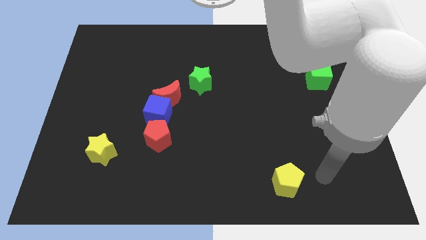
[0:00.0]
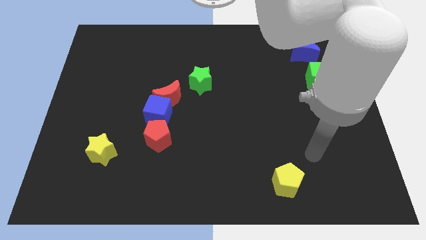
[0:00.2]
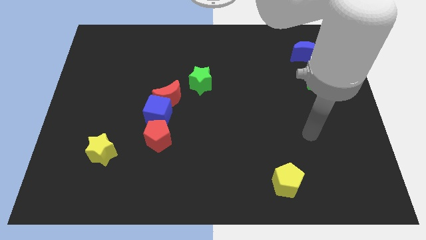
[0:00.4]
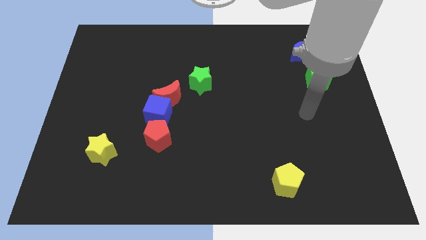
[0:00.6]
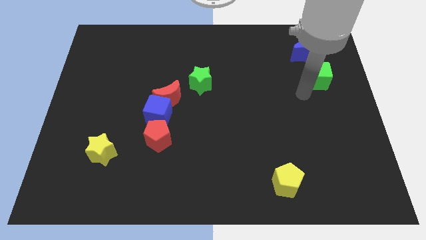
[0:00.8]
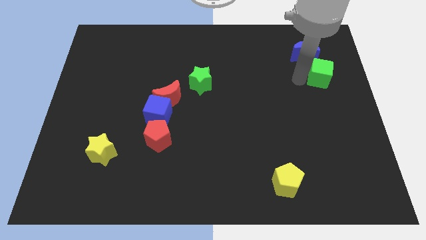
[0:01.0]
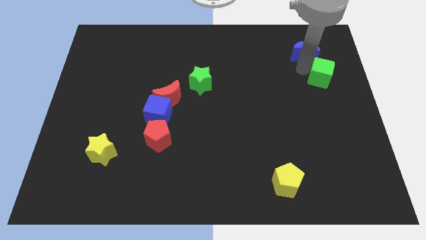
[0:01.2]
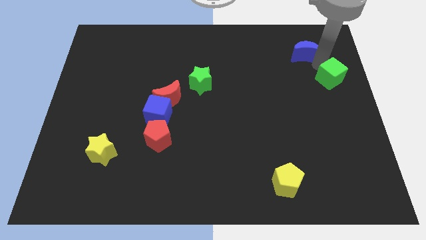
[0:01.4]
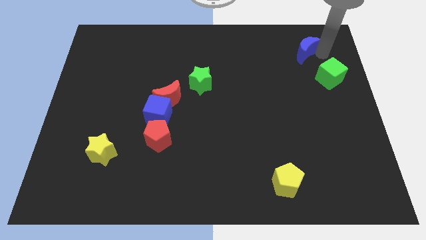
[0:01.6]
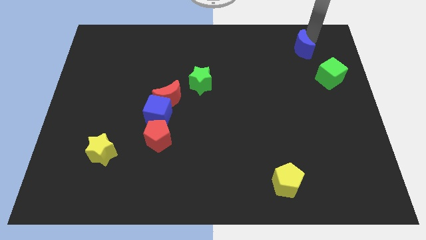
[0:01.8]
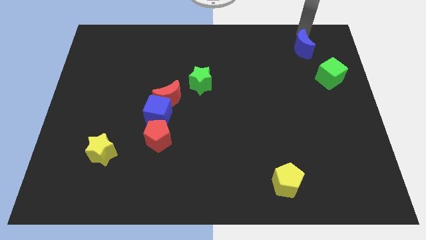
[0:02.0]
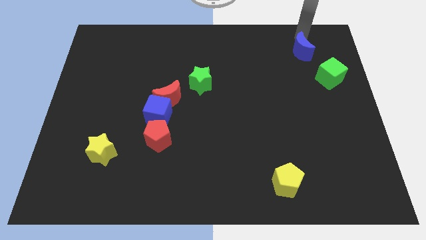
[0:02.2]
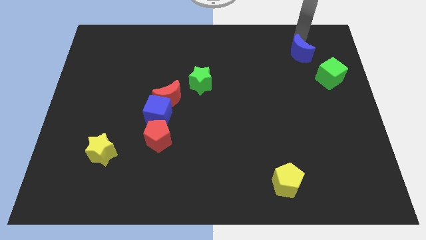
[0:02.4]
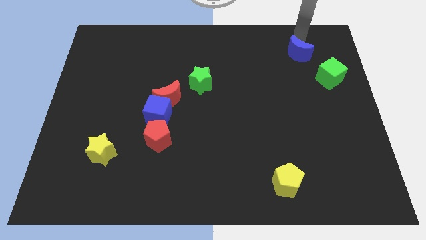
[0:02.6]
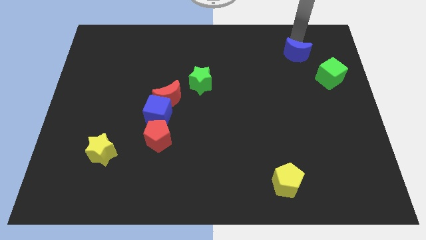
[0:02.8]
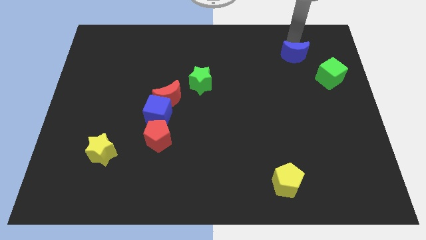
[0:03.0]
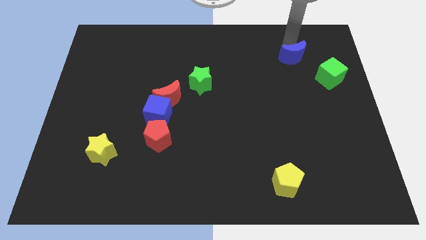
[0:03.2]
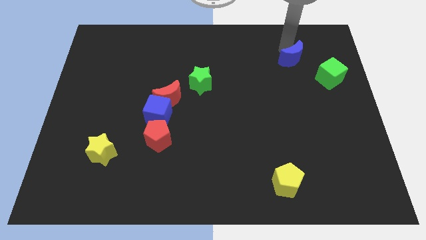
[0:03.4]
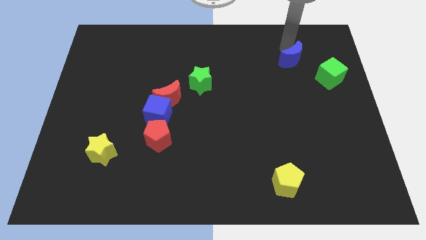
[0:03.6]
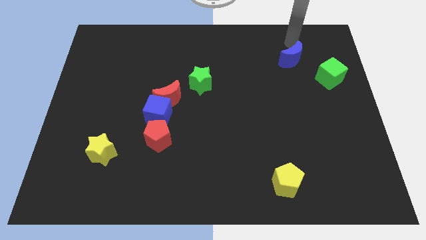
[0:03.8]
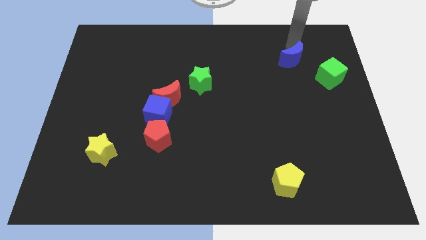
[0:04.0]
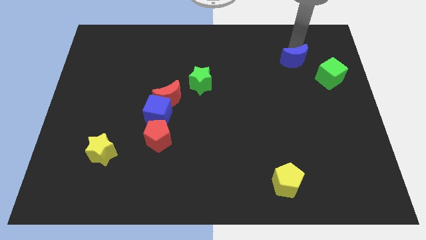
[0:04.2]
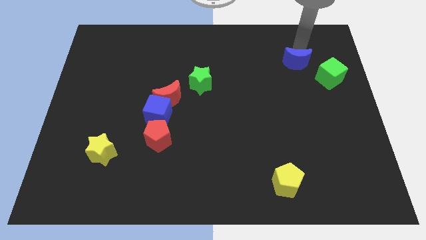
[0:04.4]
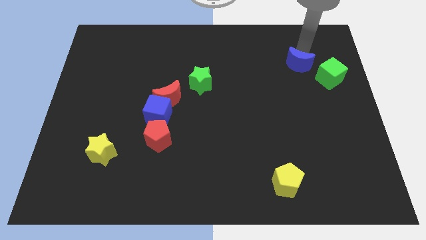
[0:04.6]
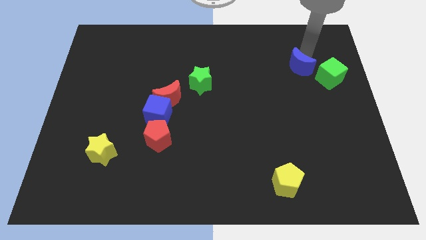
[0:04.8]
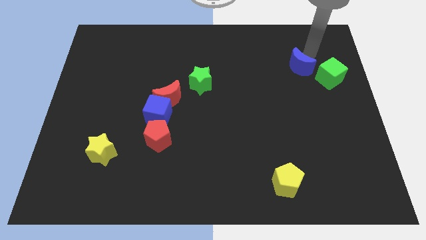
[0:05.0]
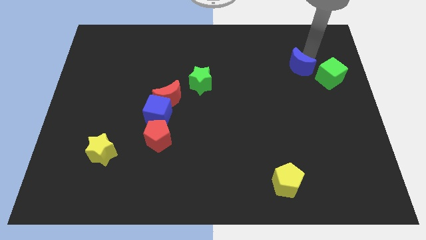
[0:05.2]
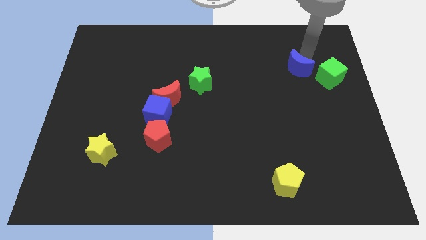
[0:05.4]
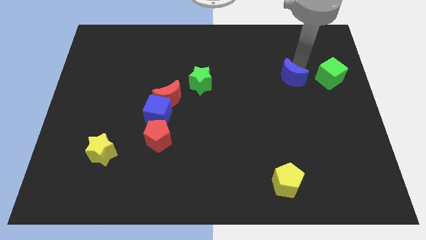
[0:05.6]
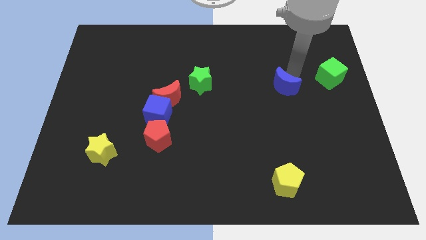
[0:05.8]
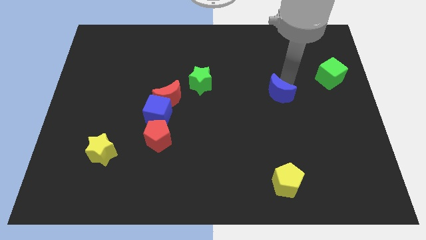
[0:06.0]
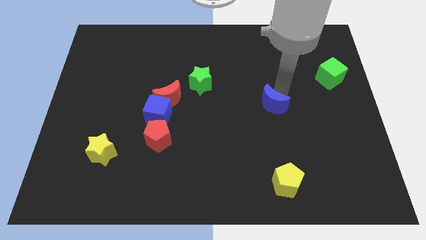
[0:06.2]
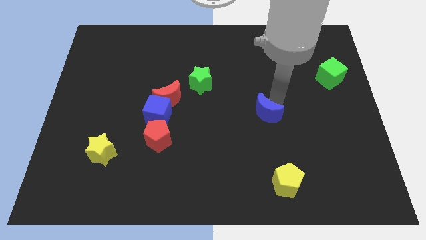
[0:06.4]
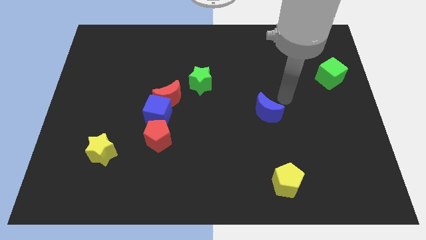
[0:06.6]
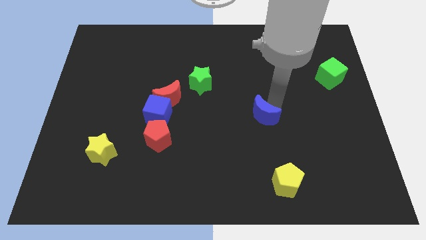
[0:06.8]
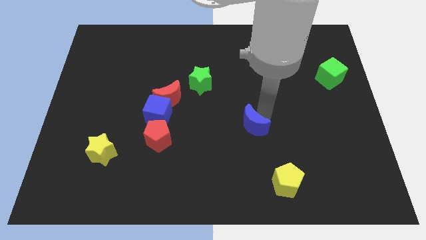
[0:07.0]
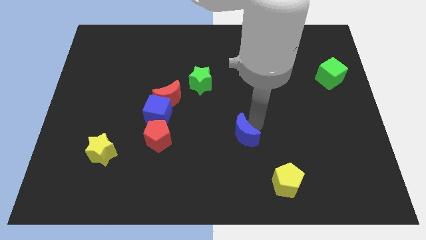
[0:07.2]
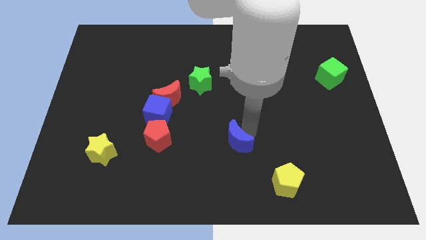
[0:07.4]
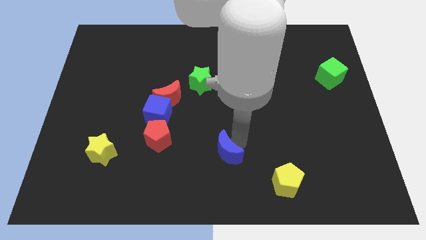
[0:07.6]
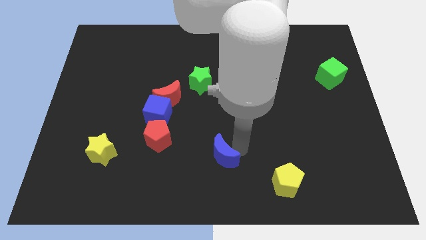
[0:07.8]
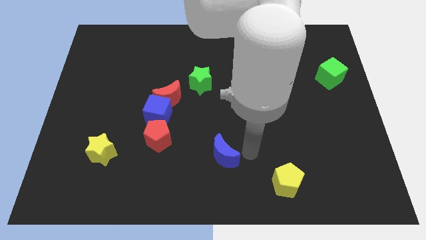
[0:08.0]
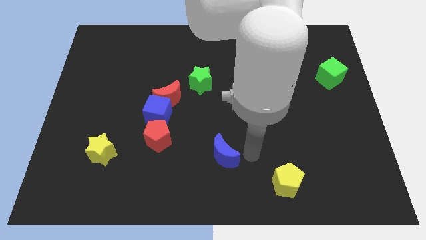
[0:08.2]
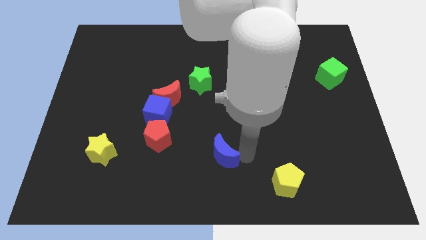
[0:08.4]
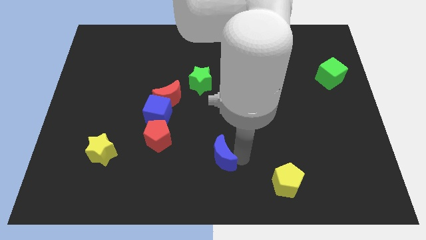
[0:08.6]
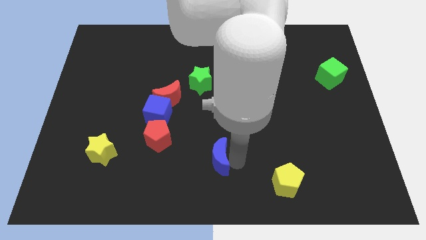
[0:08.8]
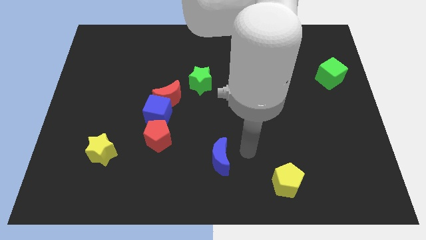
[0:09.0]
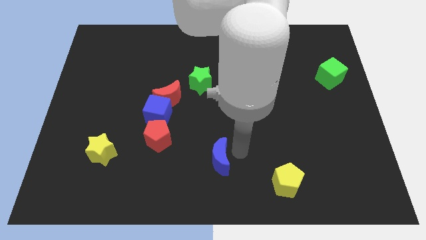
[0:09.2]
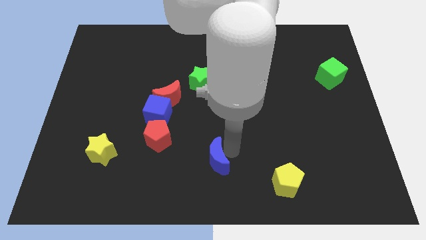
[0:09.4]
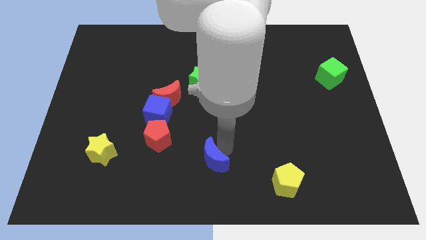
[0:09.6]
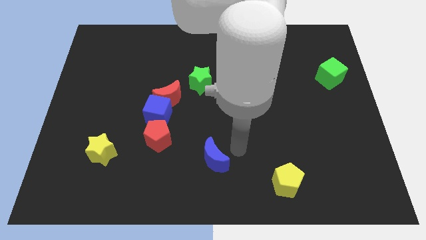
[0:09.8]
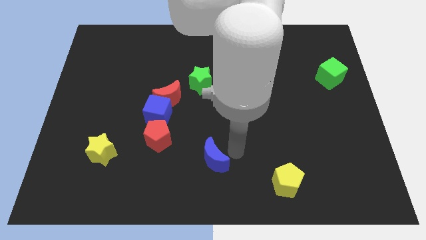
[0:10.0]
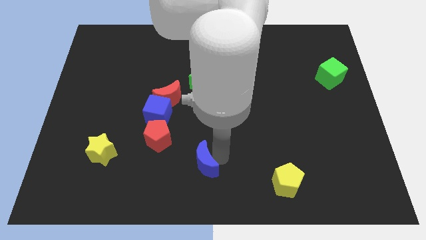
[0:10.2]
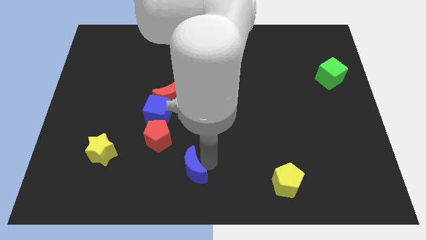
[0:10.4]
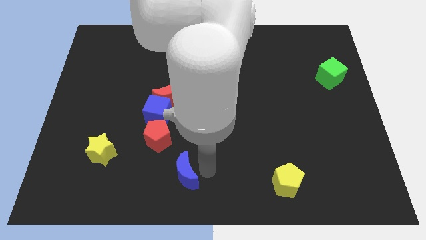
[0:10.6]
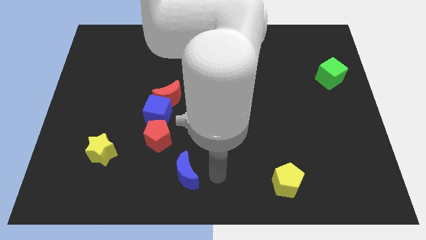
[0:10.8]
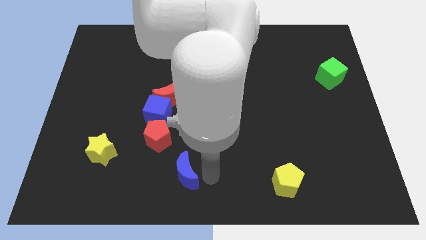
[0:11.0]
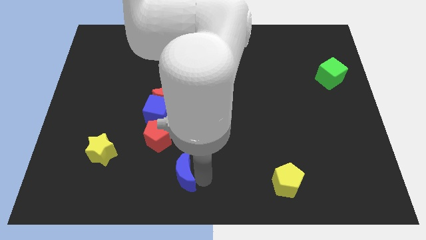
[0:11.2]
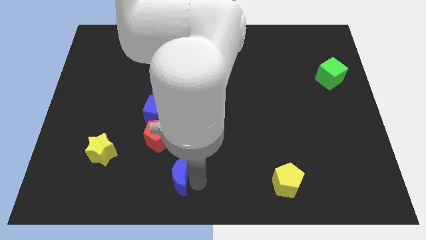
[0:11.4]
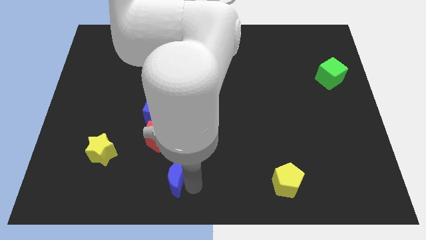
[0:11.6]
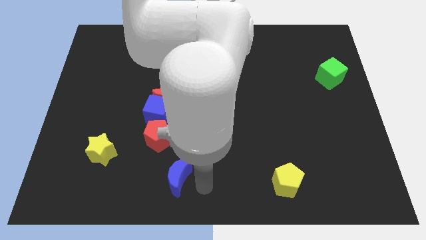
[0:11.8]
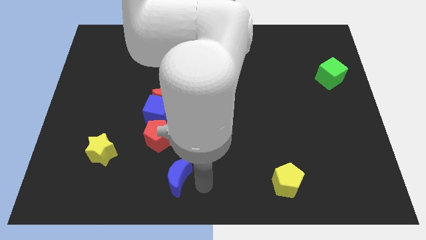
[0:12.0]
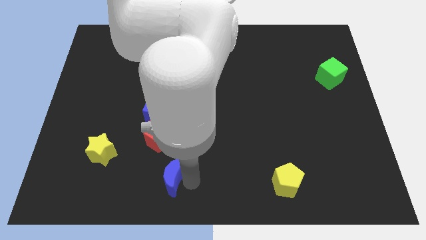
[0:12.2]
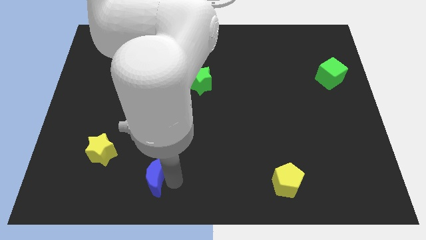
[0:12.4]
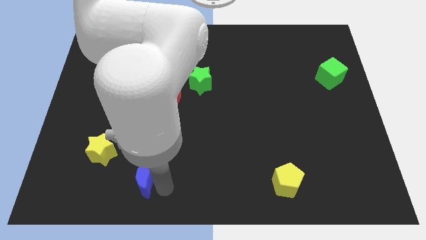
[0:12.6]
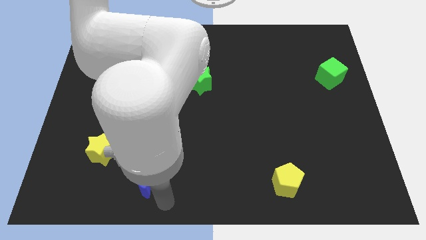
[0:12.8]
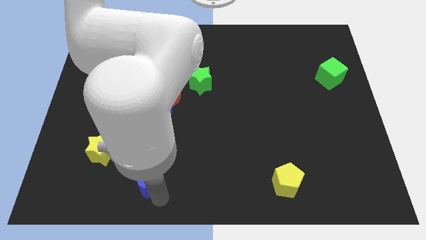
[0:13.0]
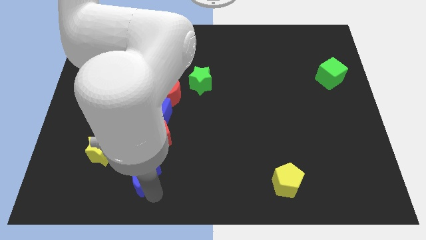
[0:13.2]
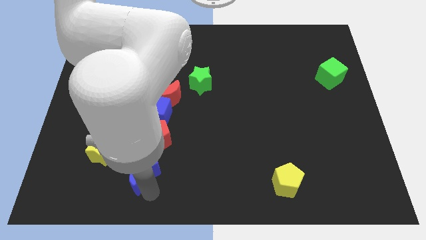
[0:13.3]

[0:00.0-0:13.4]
move the blue moon diagonally down and to the left of the red pentagon

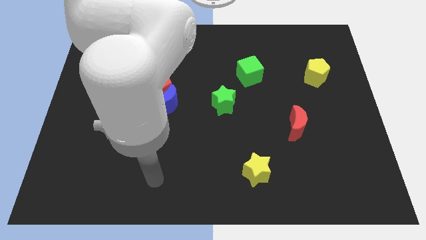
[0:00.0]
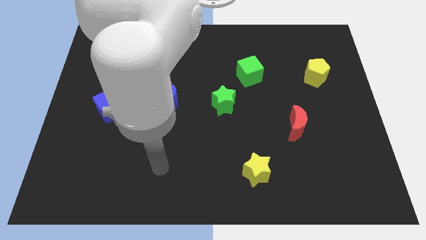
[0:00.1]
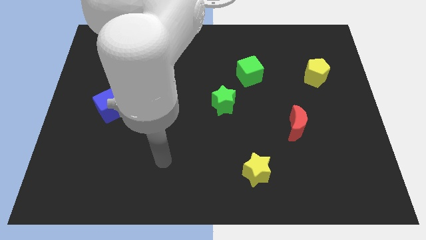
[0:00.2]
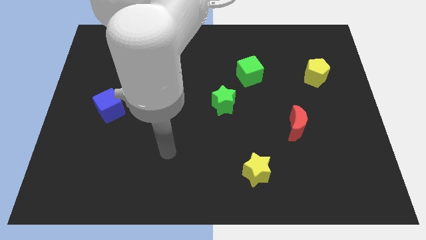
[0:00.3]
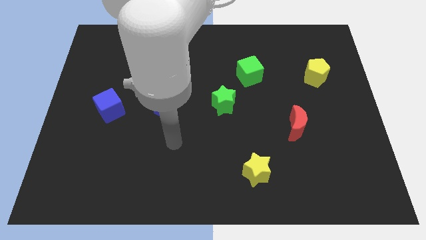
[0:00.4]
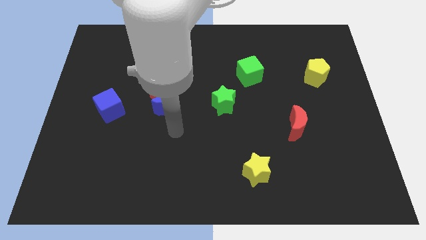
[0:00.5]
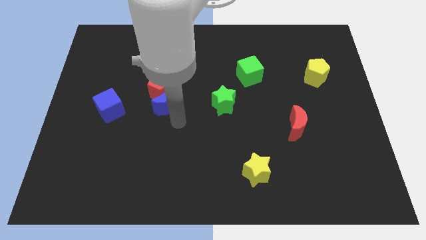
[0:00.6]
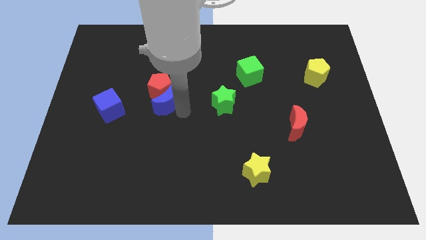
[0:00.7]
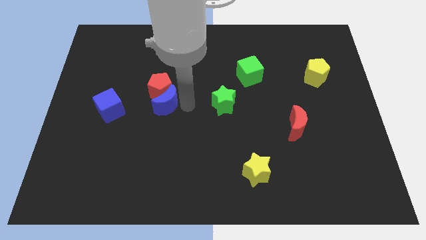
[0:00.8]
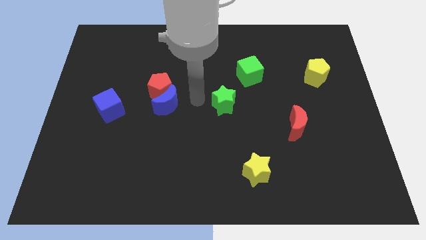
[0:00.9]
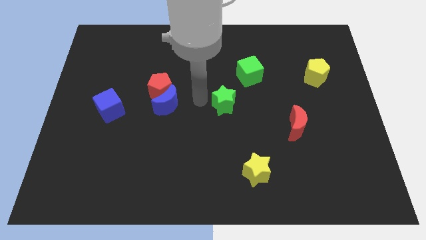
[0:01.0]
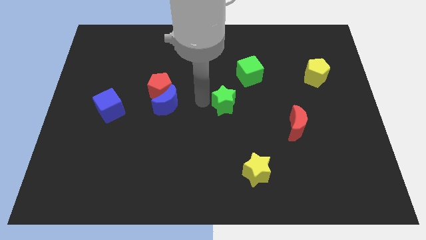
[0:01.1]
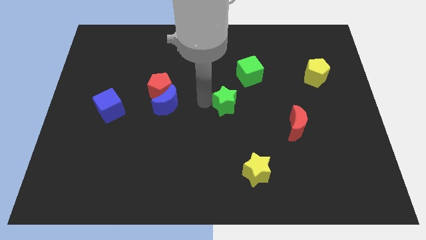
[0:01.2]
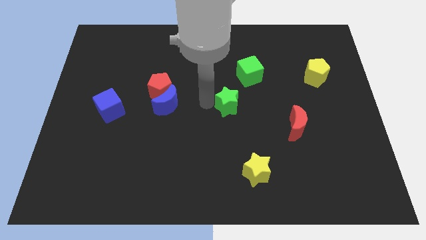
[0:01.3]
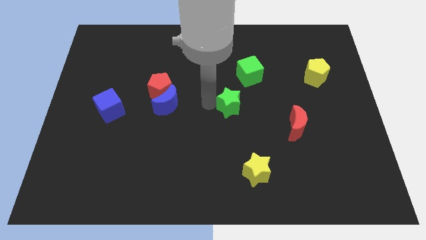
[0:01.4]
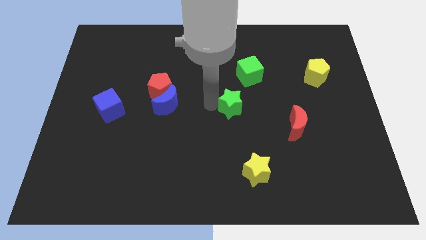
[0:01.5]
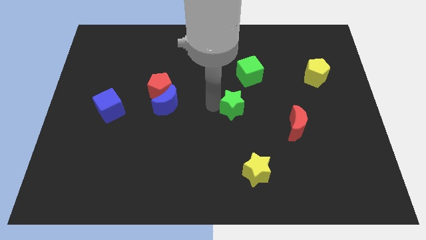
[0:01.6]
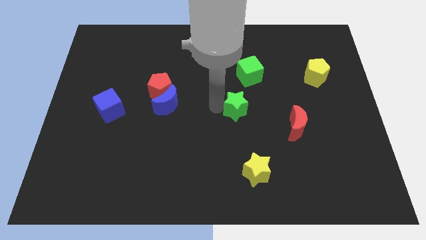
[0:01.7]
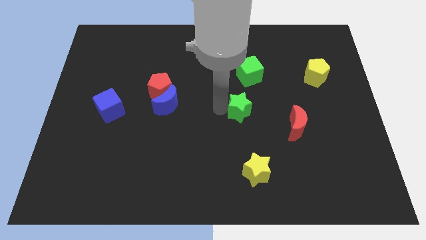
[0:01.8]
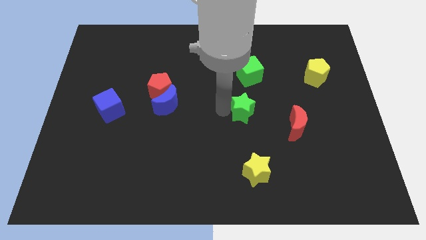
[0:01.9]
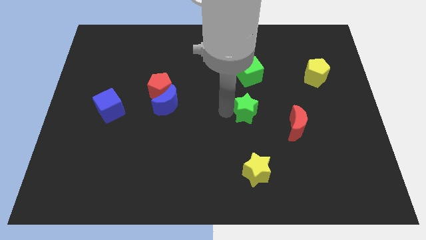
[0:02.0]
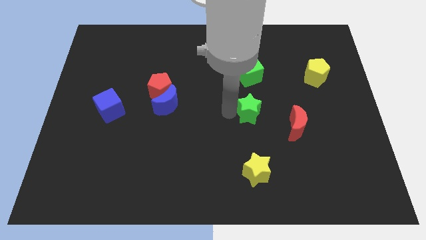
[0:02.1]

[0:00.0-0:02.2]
put the green star to the top left side of the red moon
